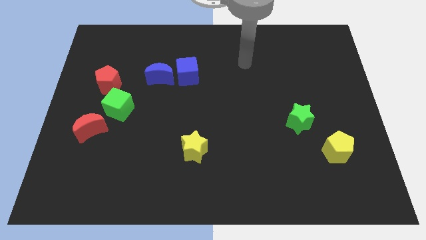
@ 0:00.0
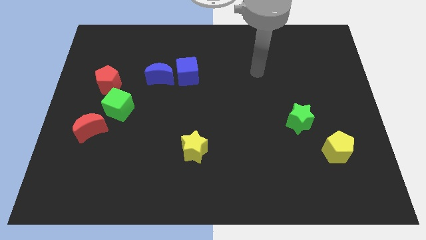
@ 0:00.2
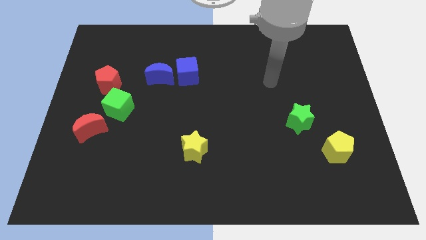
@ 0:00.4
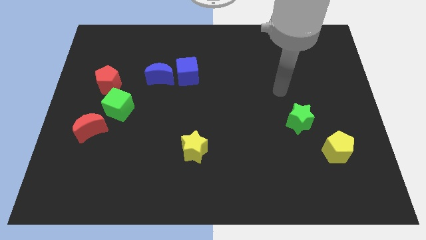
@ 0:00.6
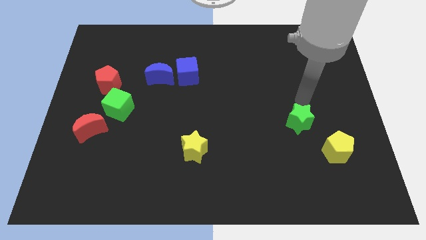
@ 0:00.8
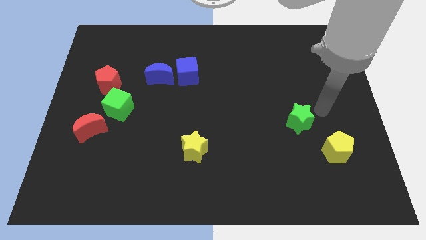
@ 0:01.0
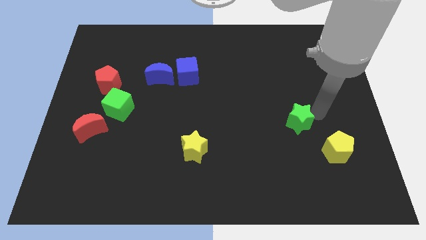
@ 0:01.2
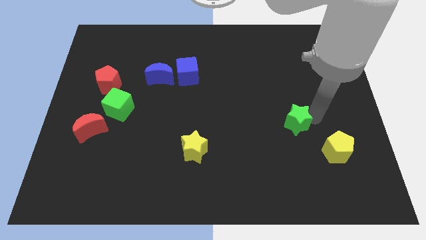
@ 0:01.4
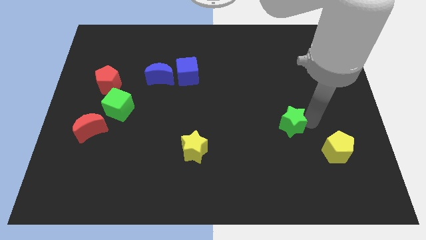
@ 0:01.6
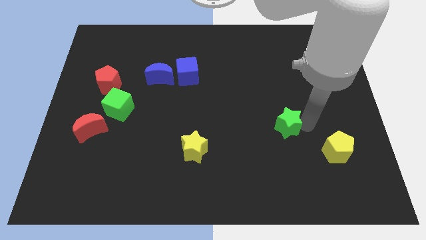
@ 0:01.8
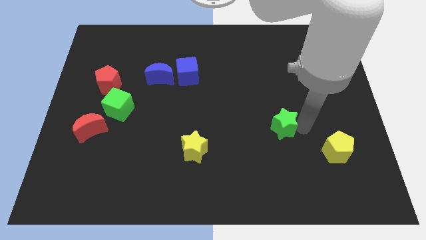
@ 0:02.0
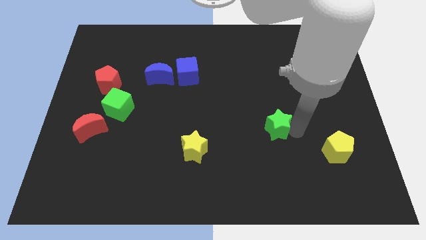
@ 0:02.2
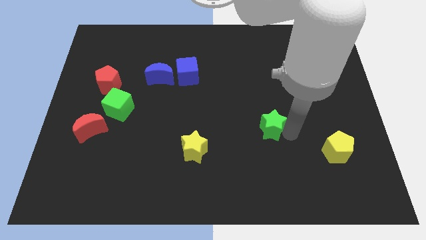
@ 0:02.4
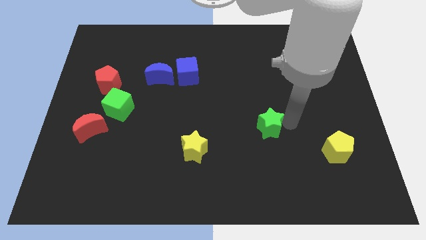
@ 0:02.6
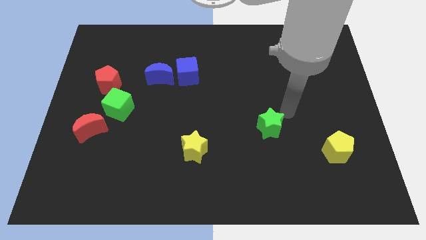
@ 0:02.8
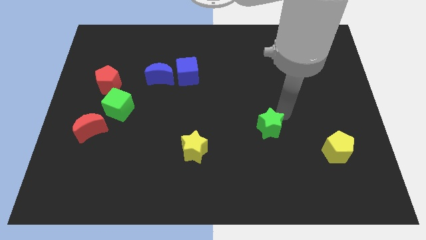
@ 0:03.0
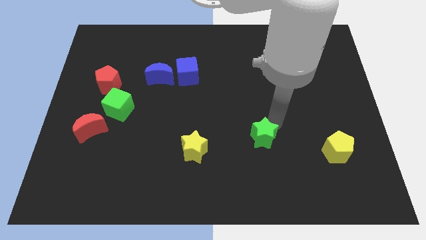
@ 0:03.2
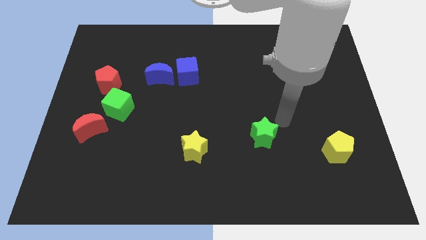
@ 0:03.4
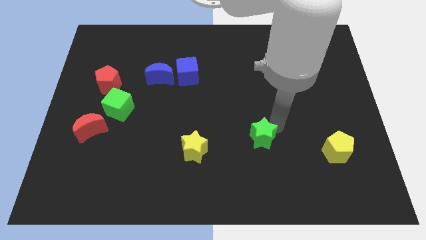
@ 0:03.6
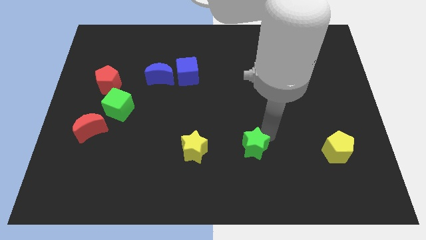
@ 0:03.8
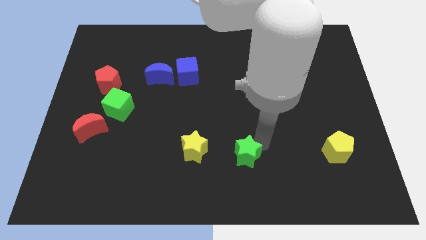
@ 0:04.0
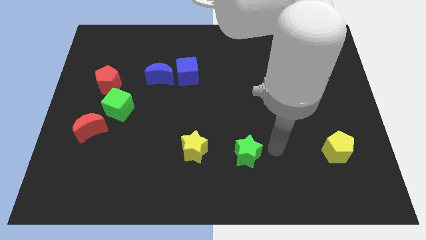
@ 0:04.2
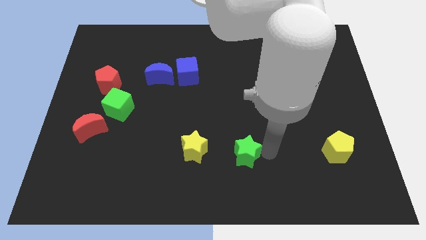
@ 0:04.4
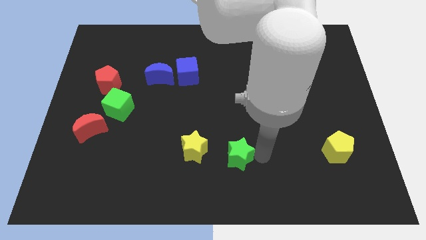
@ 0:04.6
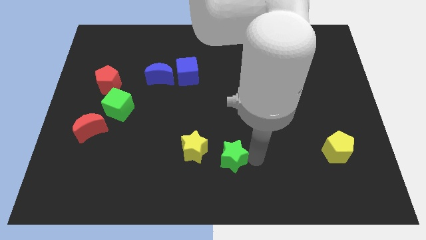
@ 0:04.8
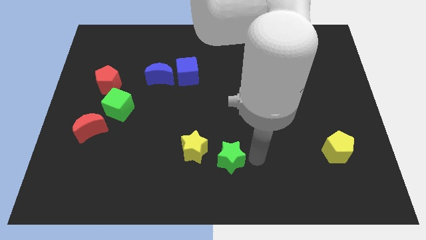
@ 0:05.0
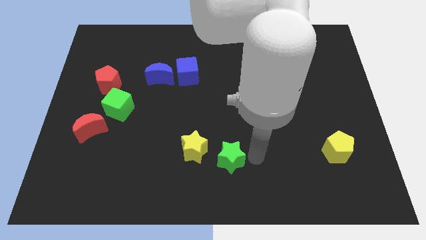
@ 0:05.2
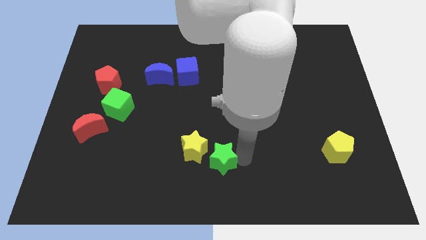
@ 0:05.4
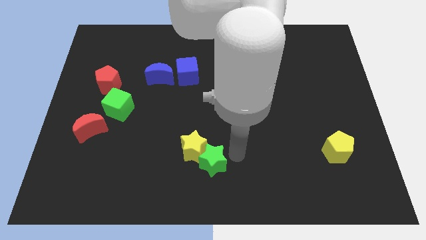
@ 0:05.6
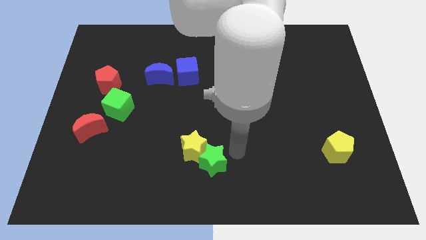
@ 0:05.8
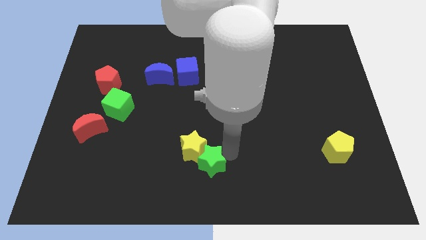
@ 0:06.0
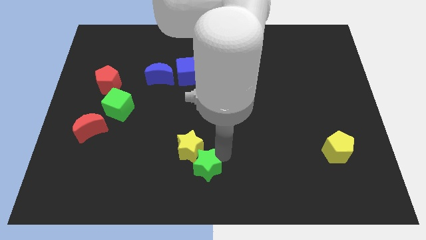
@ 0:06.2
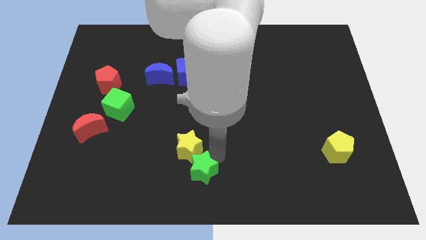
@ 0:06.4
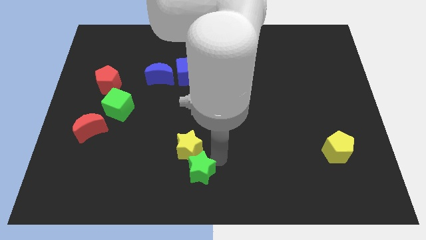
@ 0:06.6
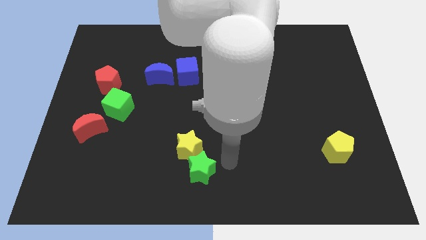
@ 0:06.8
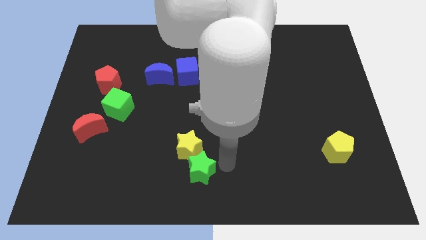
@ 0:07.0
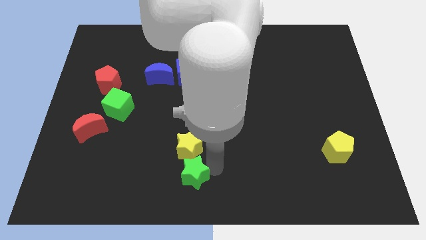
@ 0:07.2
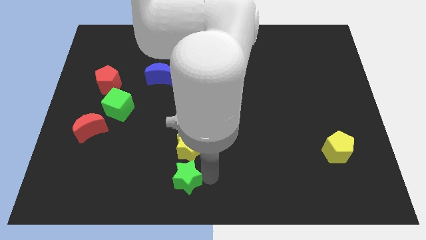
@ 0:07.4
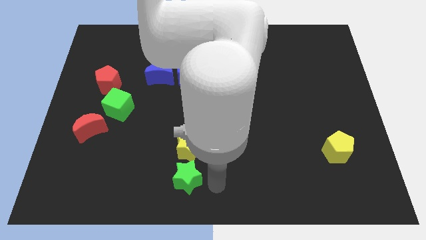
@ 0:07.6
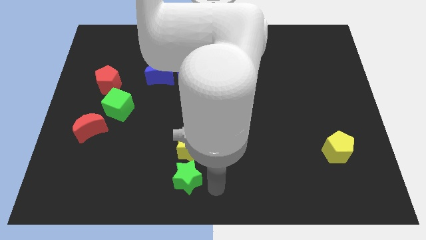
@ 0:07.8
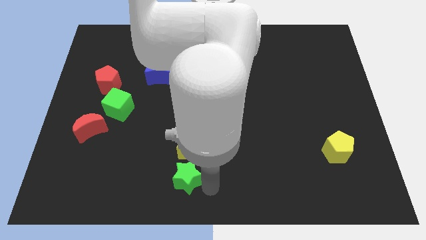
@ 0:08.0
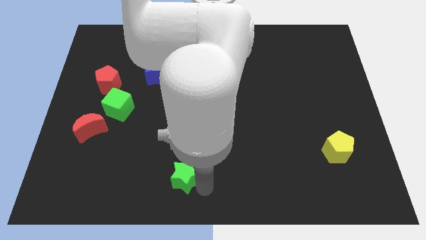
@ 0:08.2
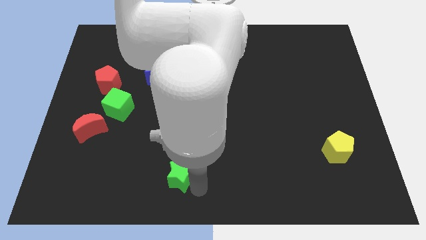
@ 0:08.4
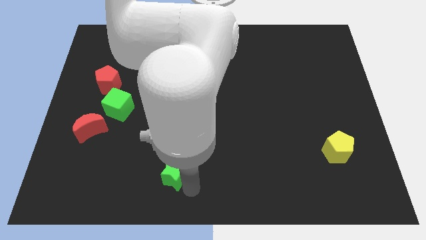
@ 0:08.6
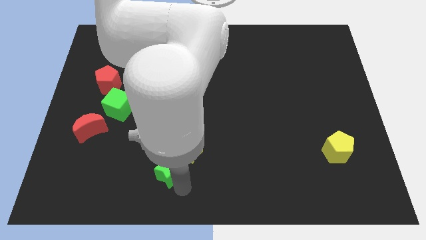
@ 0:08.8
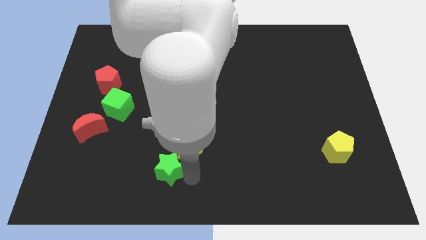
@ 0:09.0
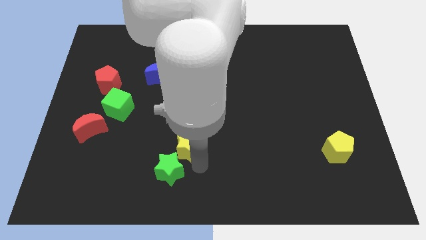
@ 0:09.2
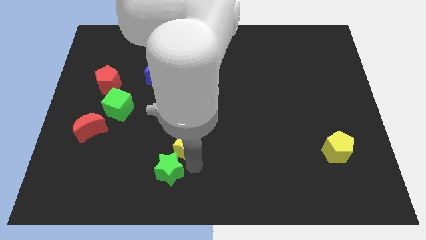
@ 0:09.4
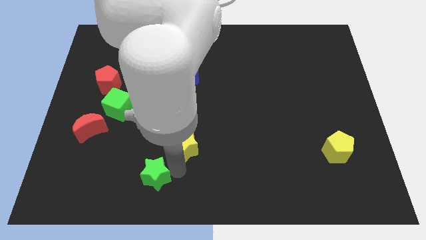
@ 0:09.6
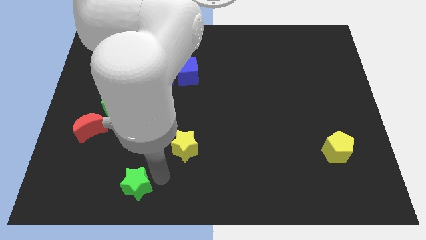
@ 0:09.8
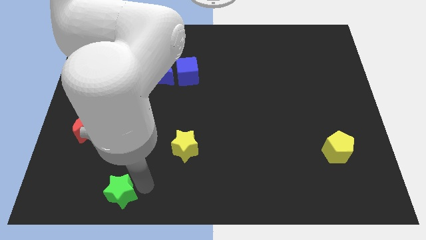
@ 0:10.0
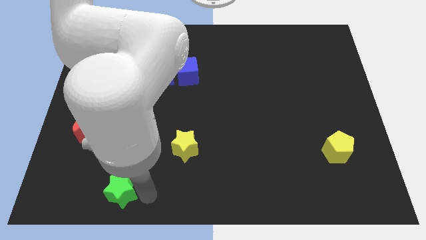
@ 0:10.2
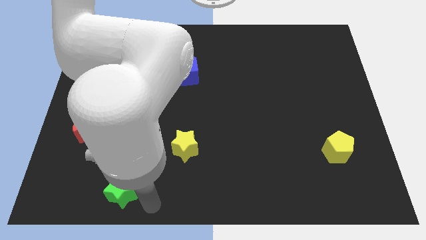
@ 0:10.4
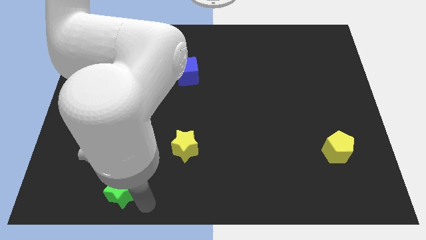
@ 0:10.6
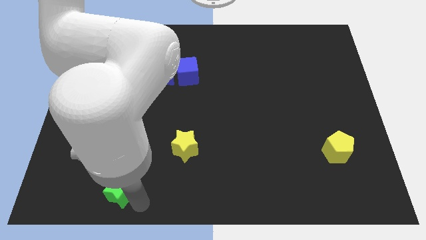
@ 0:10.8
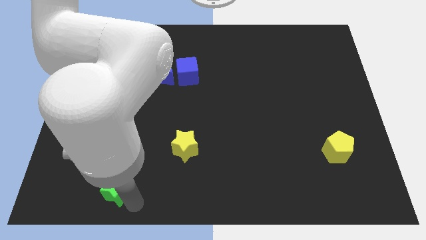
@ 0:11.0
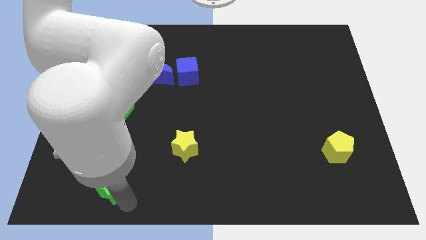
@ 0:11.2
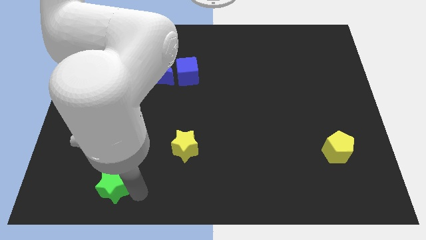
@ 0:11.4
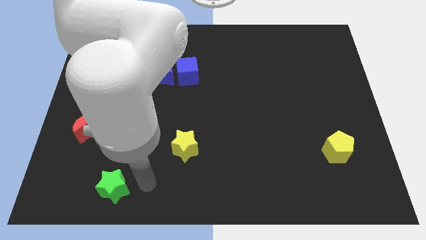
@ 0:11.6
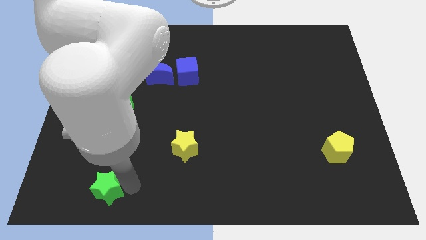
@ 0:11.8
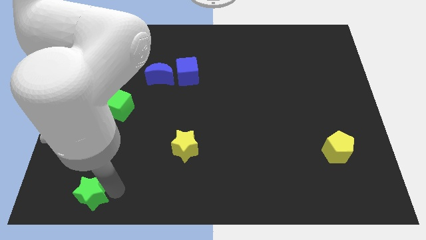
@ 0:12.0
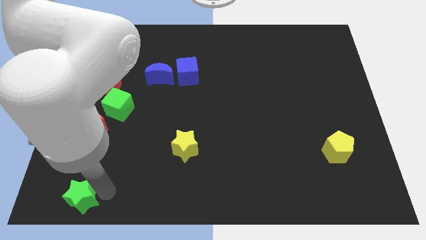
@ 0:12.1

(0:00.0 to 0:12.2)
slide the green star to the bottom left corner
